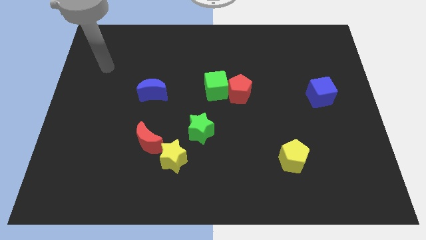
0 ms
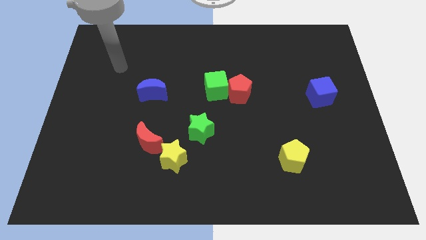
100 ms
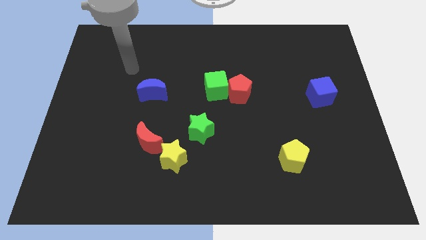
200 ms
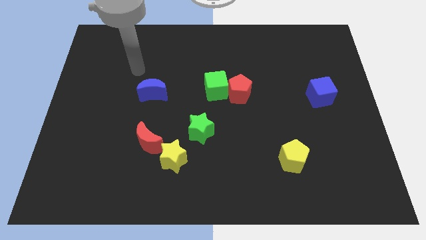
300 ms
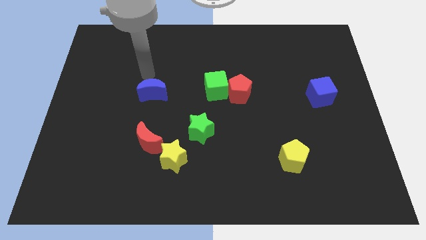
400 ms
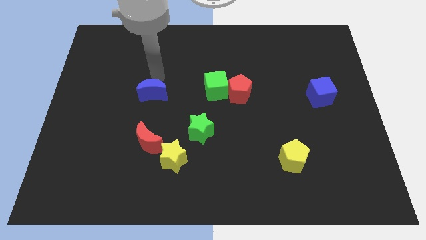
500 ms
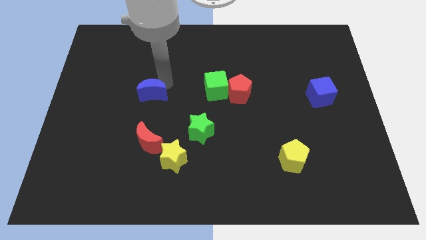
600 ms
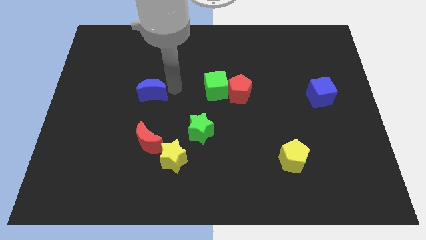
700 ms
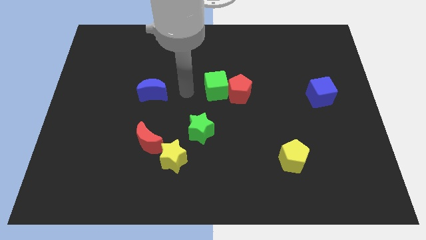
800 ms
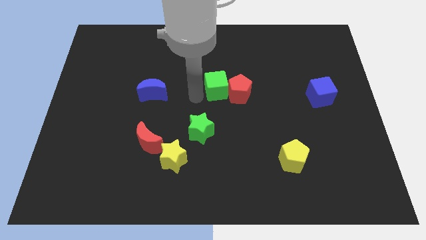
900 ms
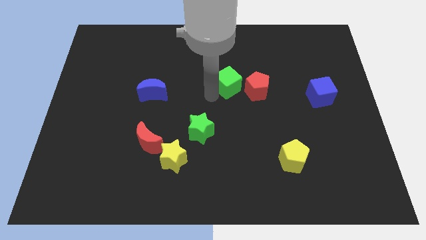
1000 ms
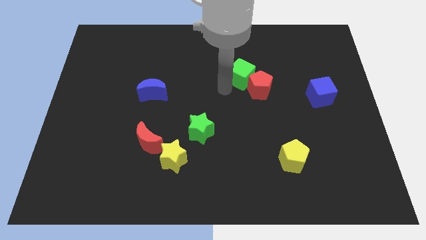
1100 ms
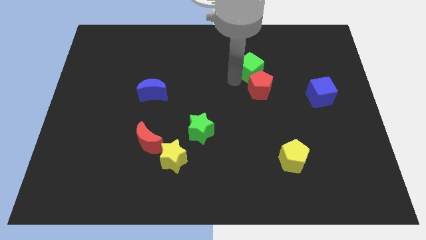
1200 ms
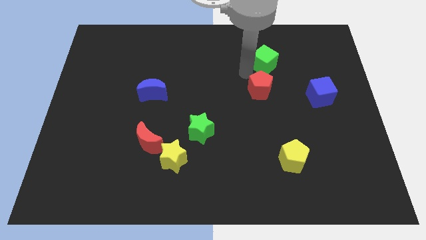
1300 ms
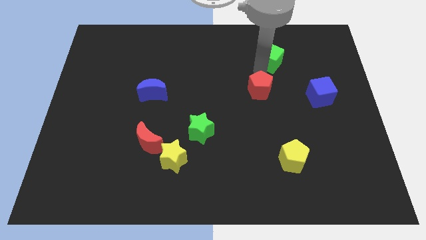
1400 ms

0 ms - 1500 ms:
pull the red pentagon apart from the green cube

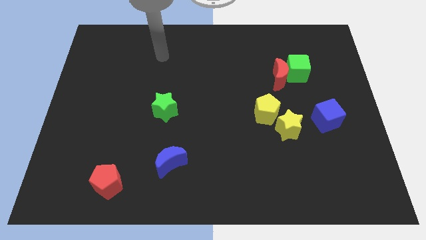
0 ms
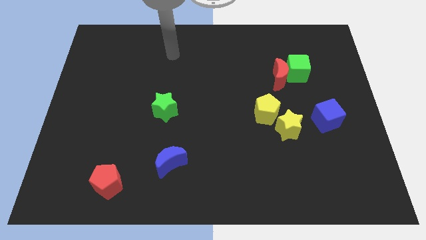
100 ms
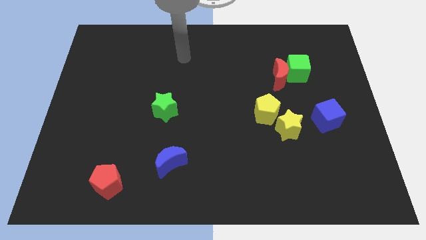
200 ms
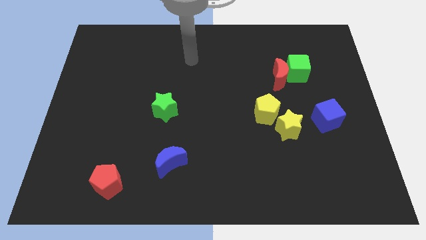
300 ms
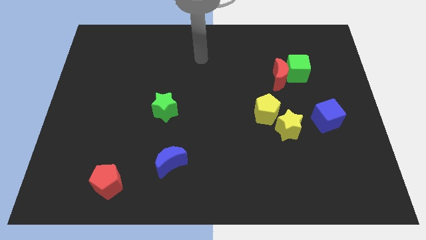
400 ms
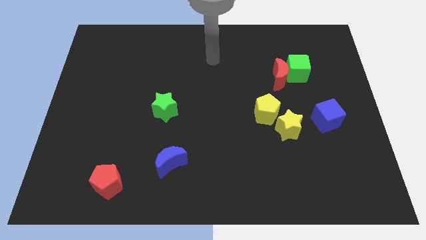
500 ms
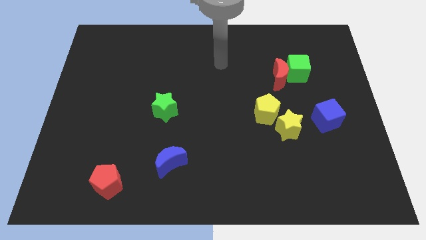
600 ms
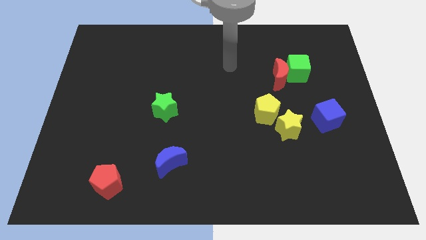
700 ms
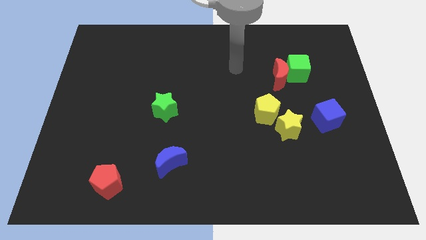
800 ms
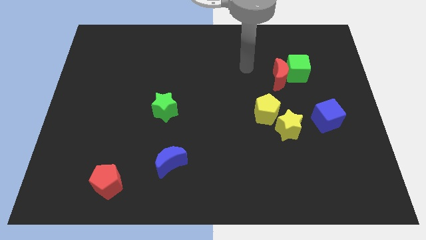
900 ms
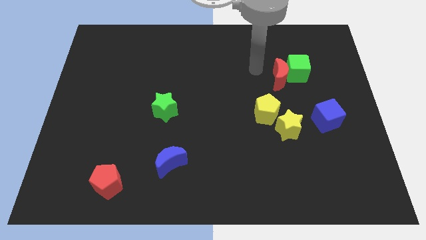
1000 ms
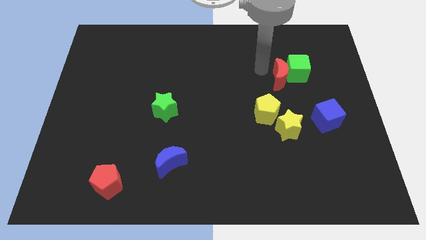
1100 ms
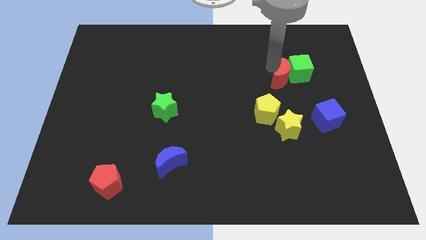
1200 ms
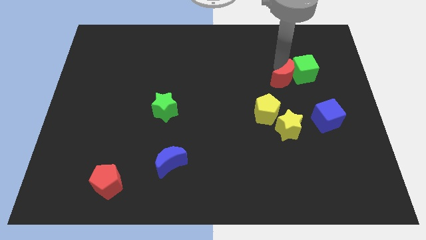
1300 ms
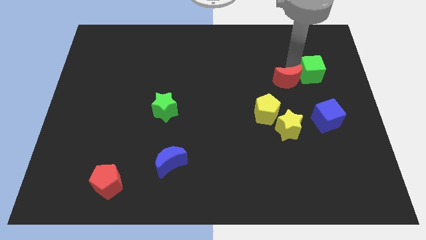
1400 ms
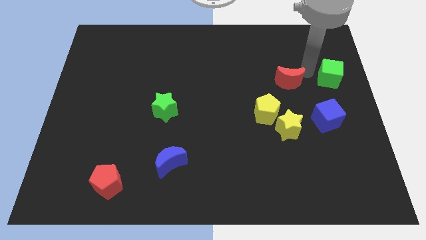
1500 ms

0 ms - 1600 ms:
pull the red moon apart from the green cube

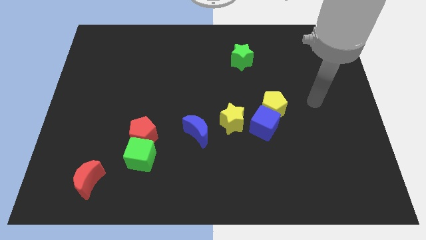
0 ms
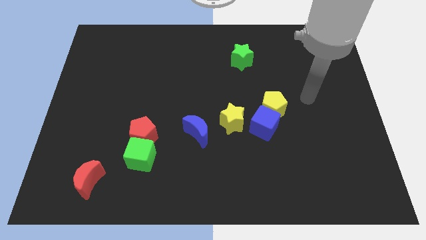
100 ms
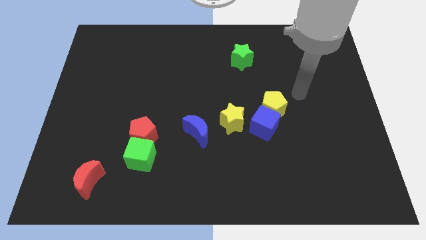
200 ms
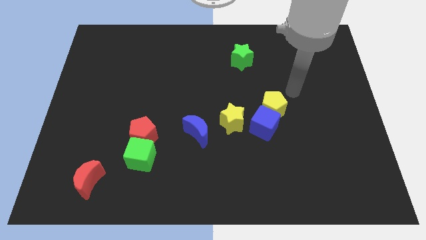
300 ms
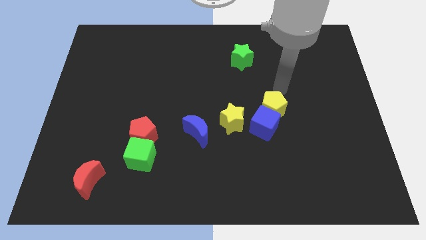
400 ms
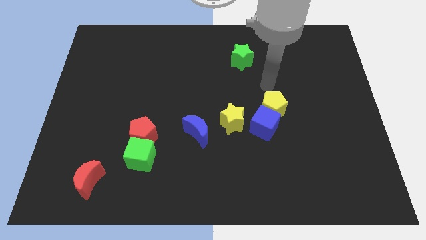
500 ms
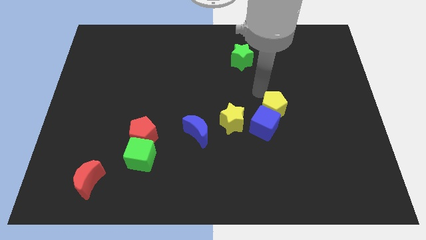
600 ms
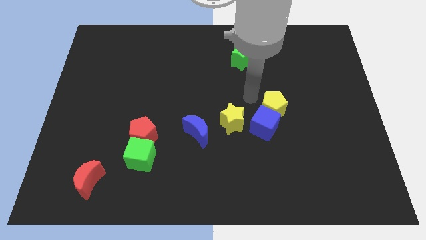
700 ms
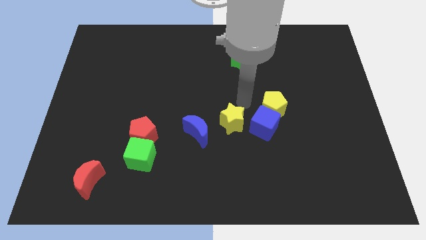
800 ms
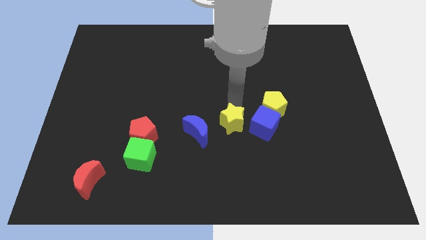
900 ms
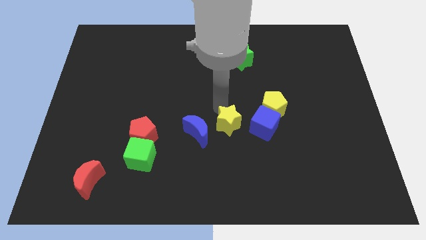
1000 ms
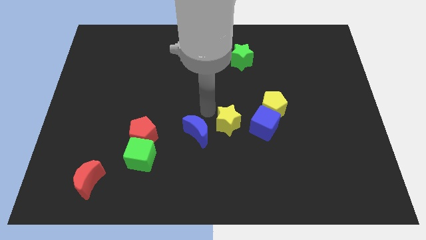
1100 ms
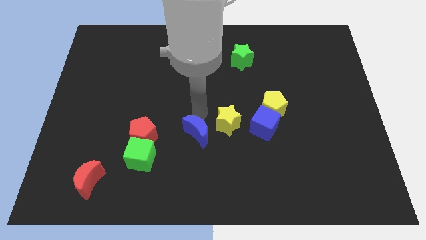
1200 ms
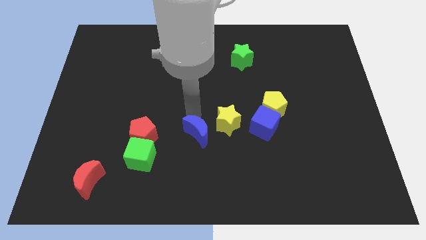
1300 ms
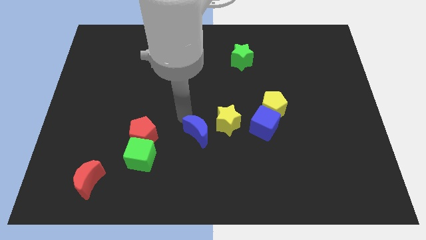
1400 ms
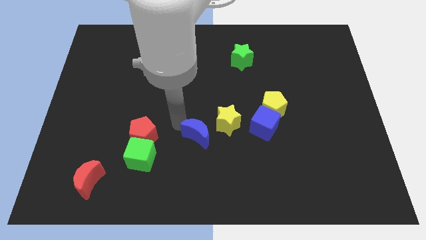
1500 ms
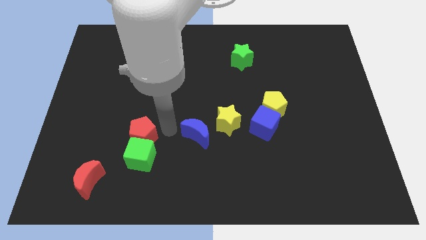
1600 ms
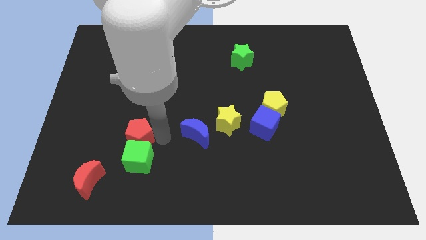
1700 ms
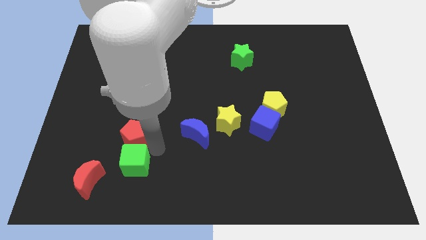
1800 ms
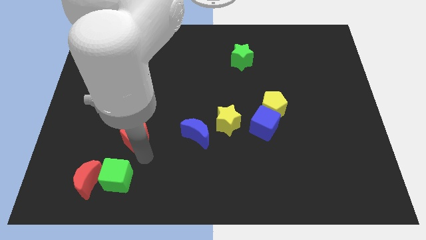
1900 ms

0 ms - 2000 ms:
separate the red pentagon from the green cube

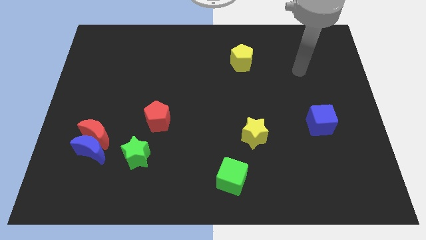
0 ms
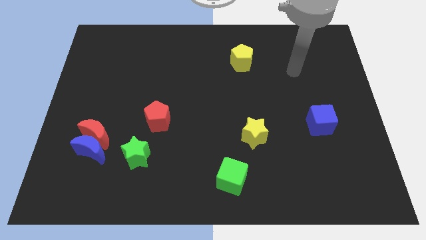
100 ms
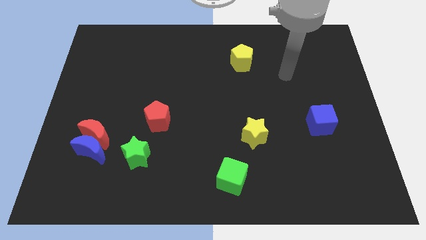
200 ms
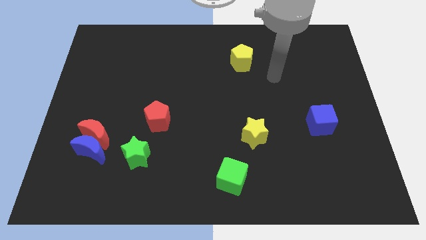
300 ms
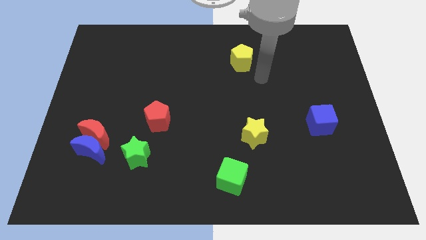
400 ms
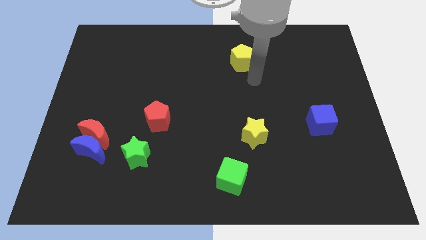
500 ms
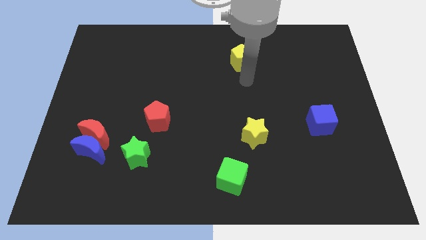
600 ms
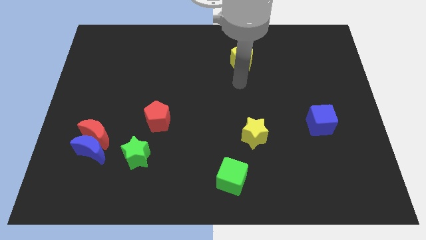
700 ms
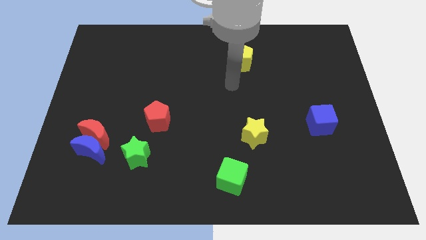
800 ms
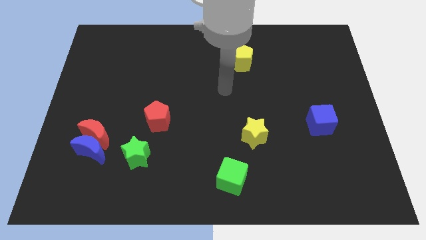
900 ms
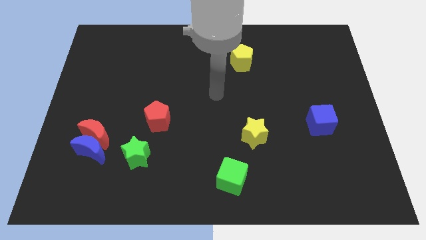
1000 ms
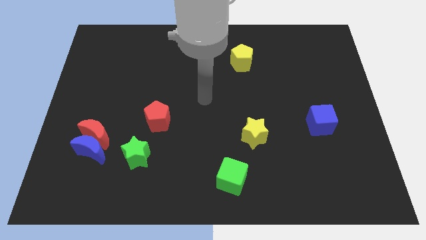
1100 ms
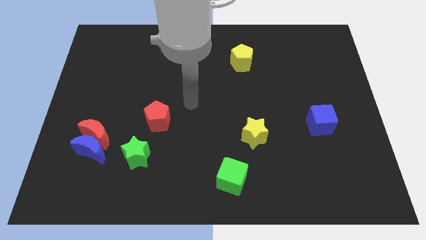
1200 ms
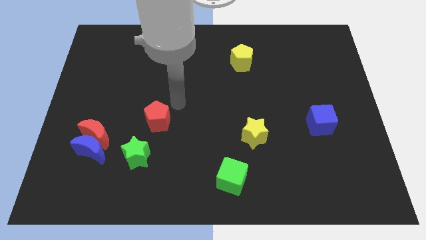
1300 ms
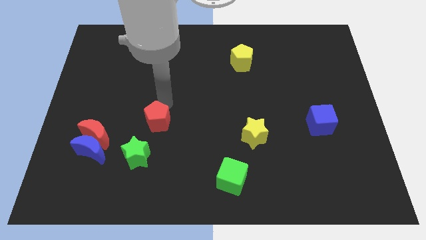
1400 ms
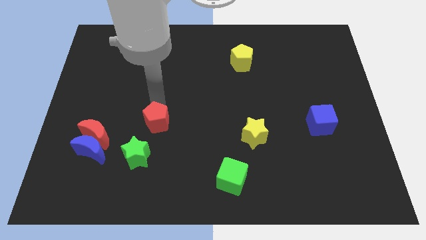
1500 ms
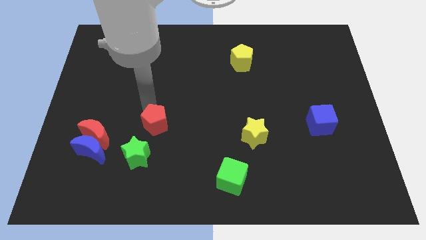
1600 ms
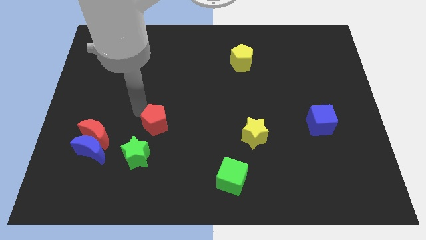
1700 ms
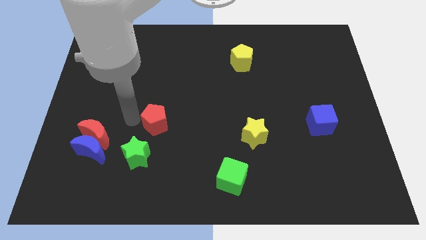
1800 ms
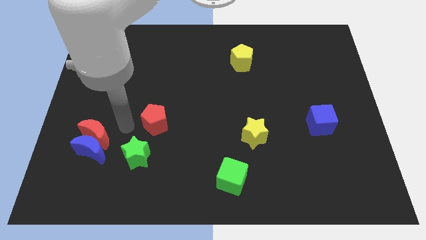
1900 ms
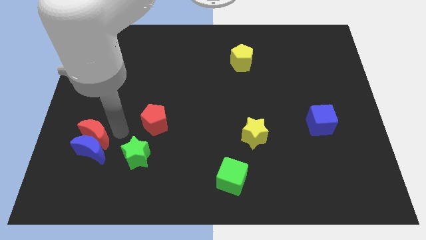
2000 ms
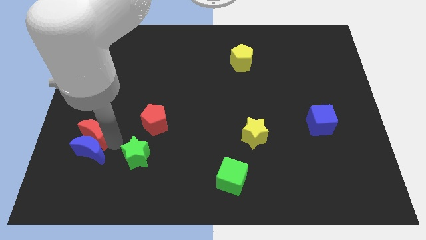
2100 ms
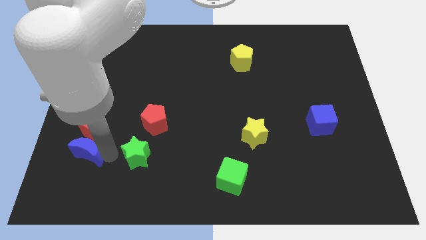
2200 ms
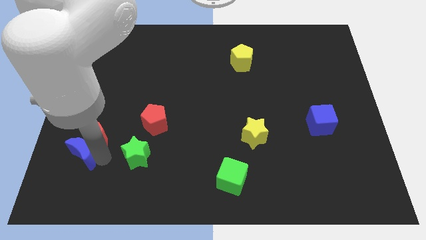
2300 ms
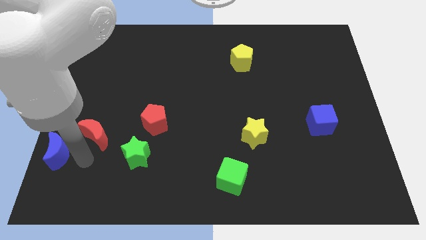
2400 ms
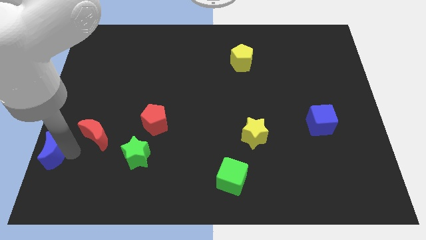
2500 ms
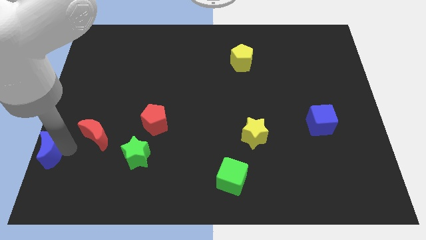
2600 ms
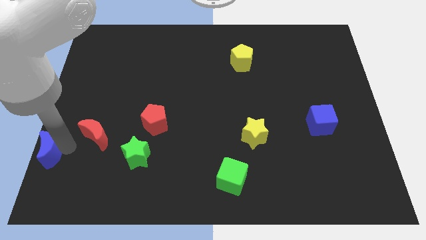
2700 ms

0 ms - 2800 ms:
pull the red moon apart from the blue moon

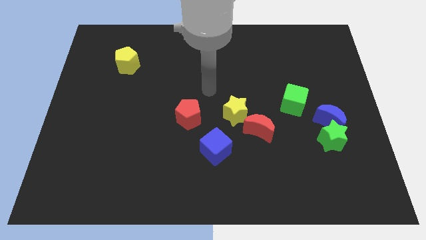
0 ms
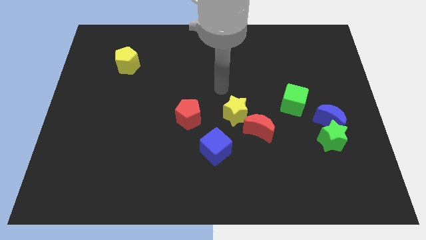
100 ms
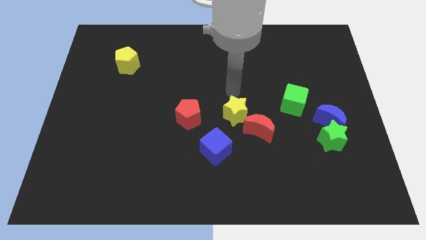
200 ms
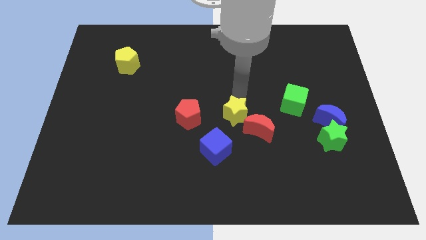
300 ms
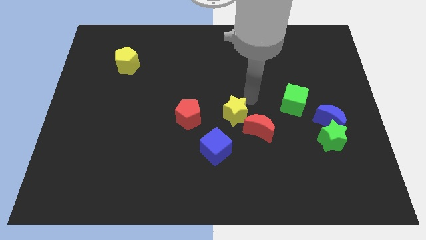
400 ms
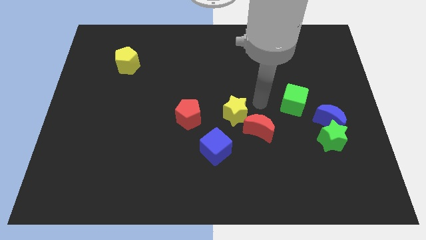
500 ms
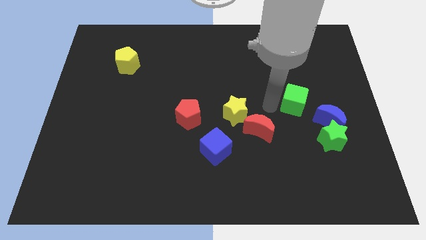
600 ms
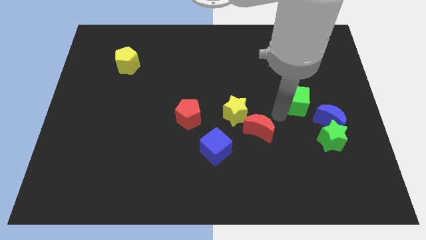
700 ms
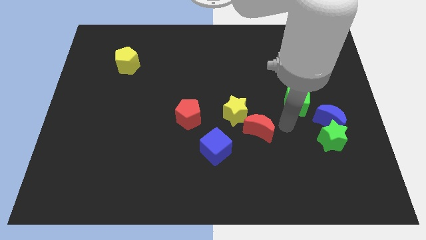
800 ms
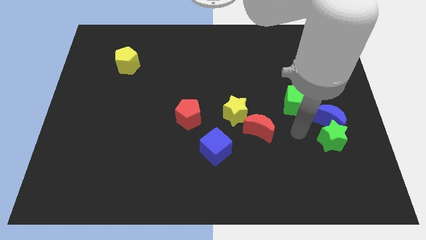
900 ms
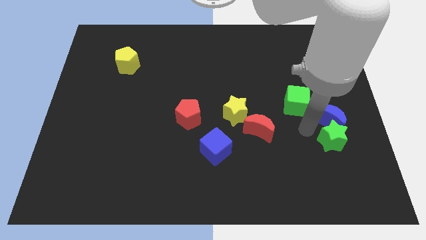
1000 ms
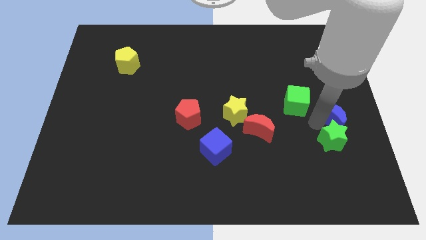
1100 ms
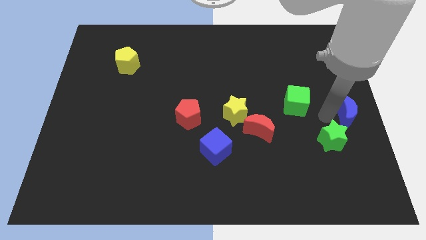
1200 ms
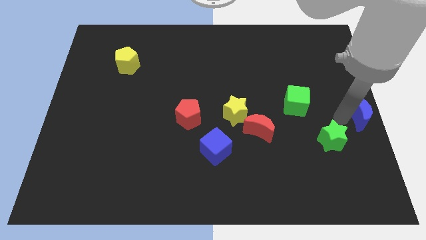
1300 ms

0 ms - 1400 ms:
pull the green star apart from the blue moon
